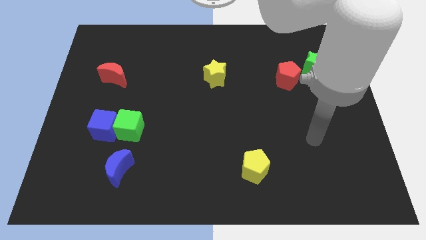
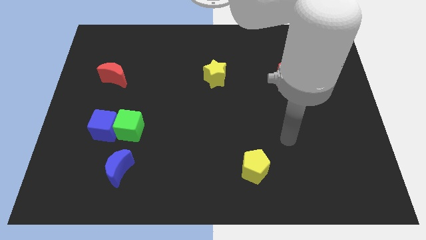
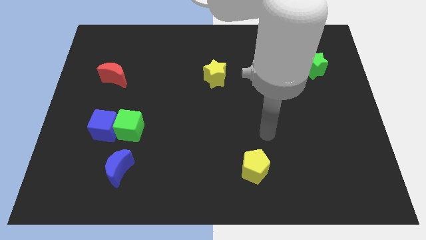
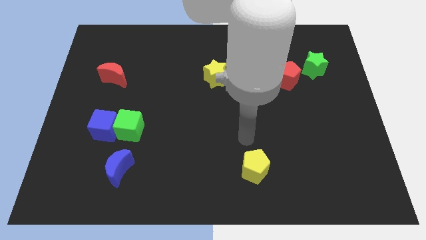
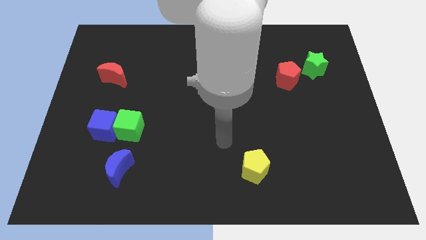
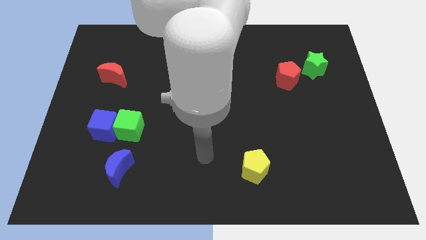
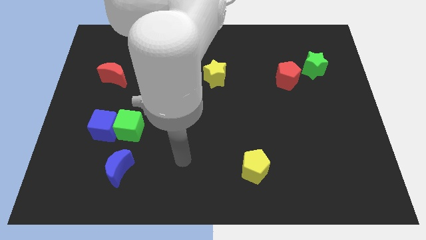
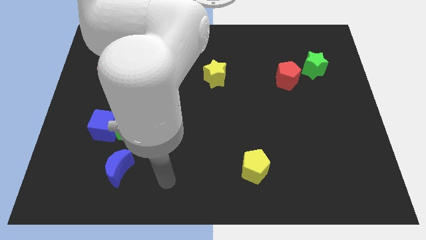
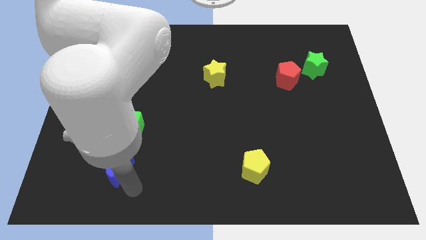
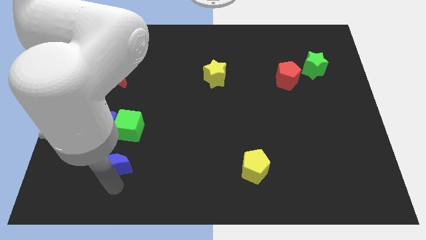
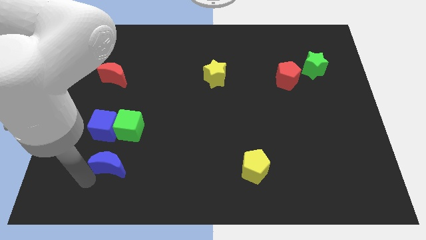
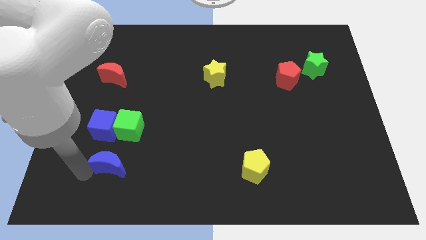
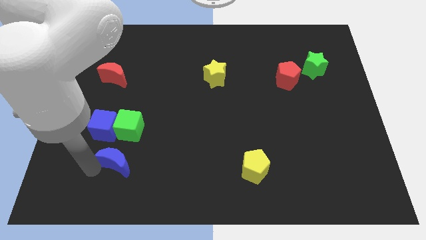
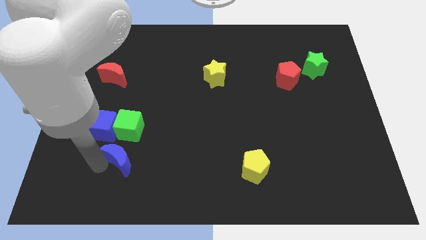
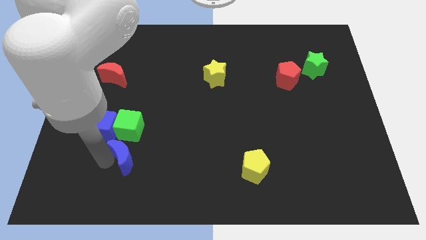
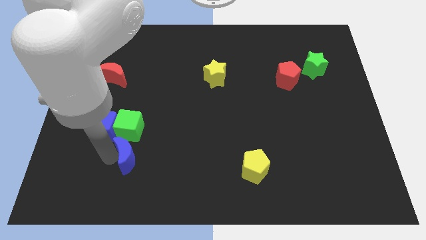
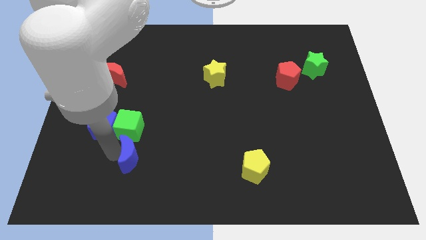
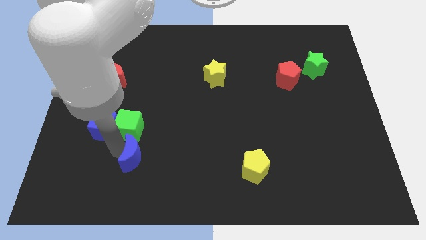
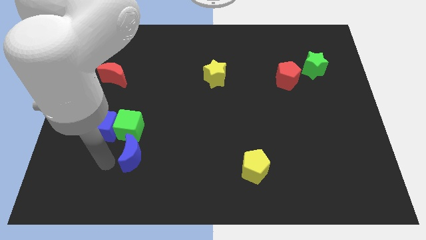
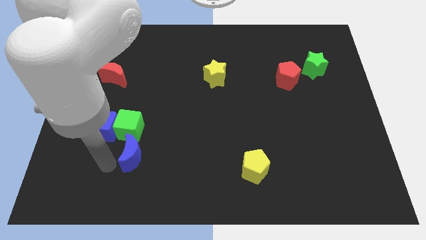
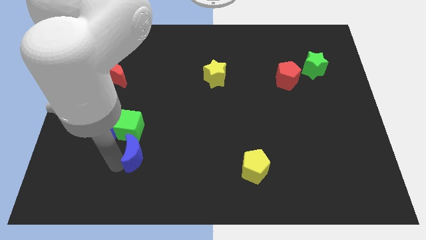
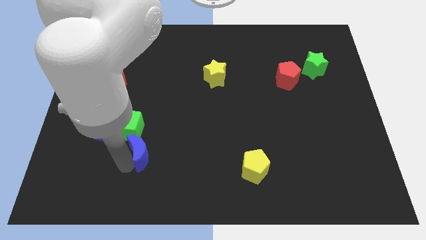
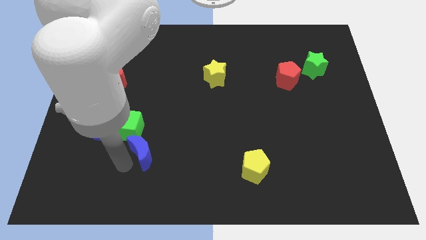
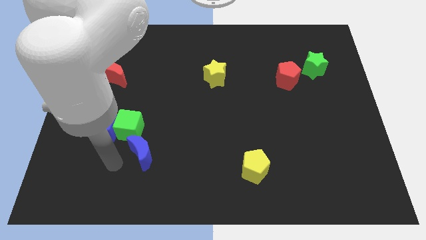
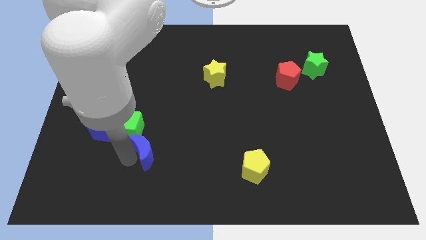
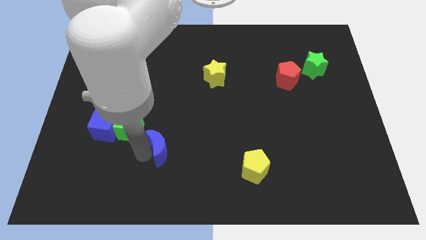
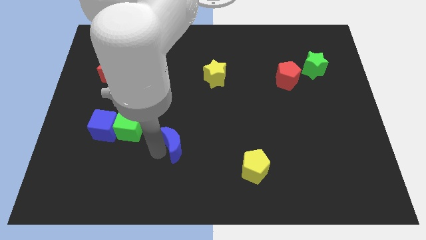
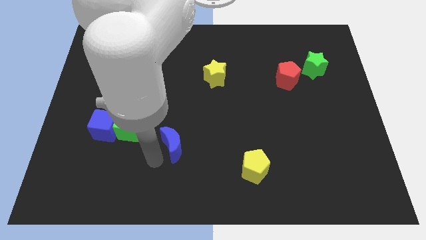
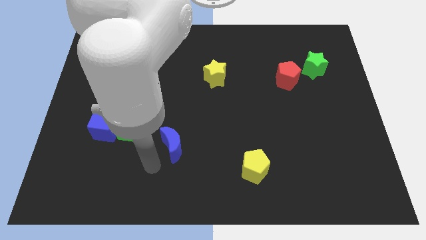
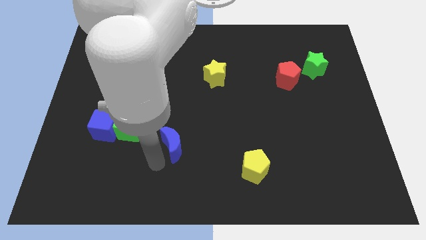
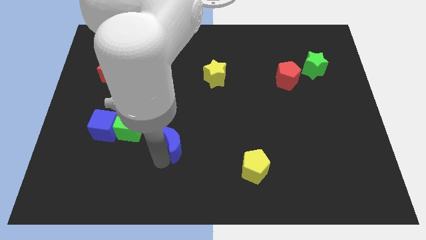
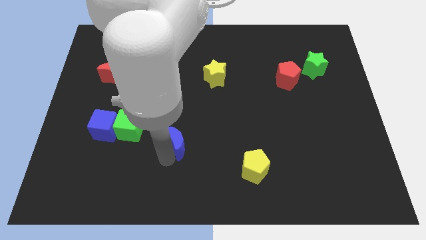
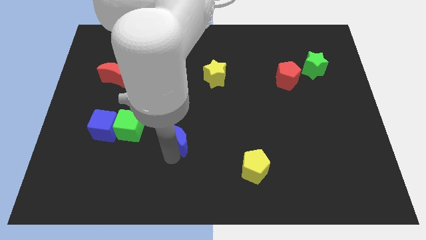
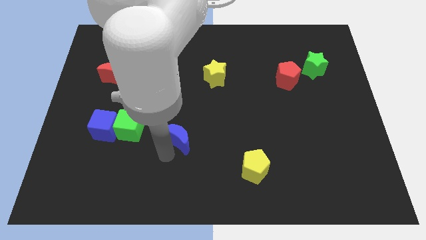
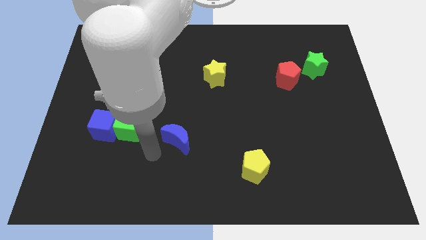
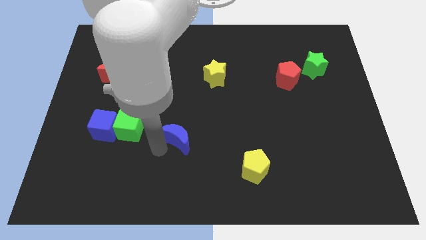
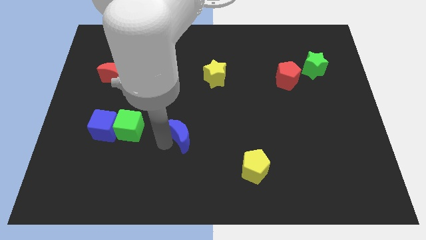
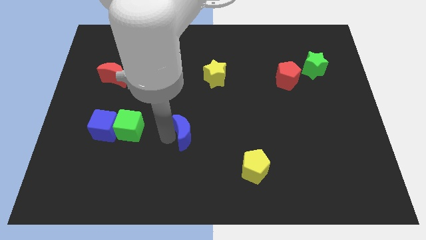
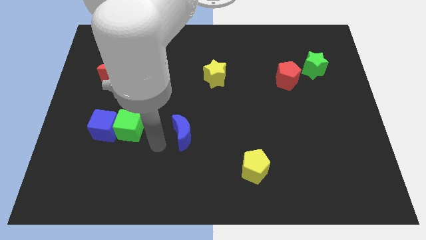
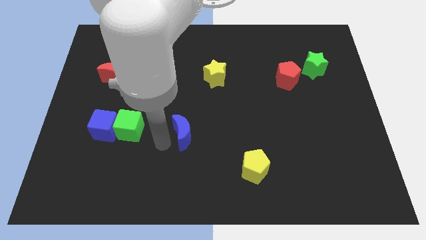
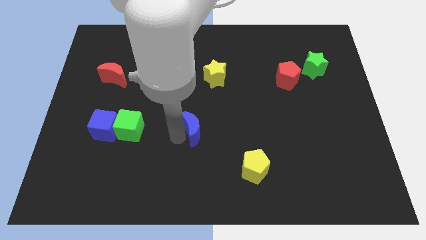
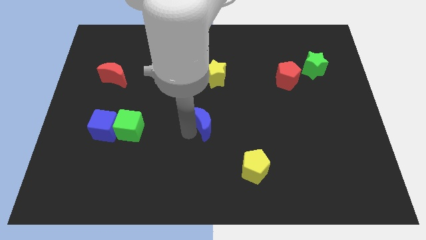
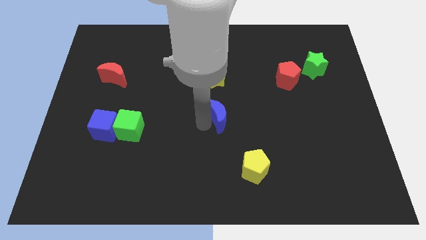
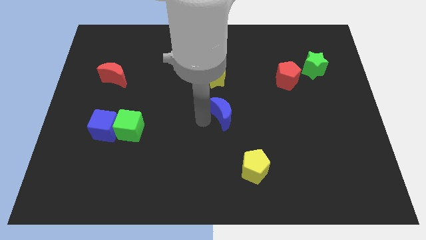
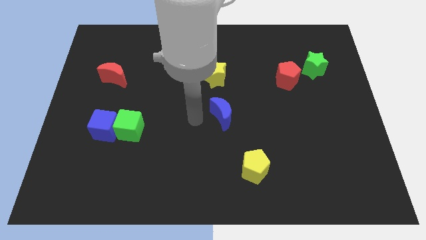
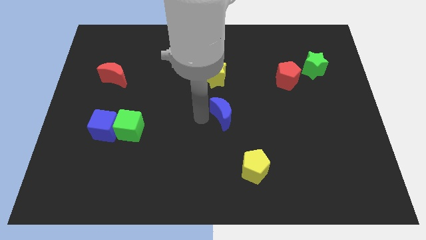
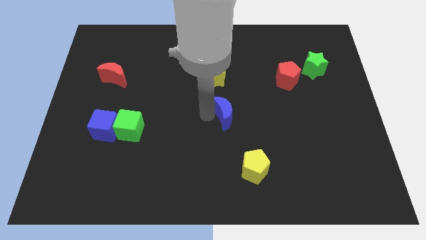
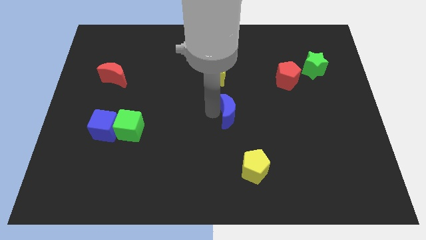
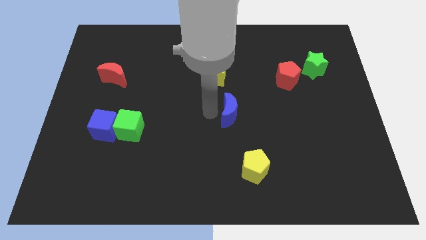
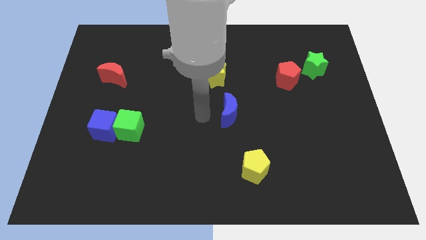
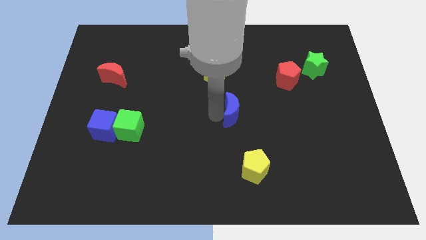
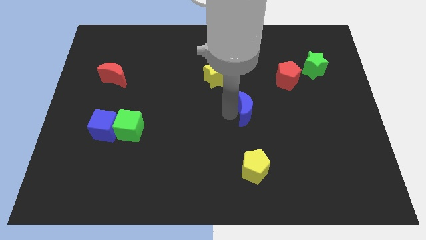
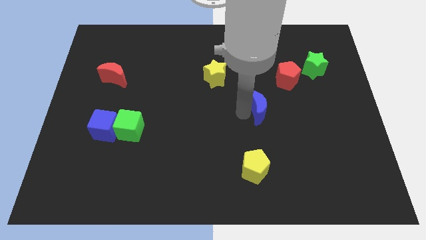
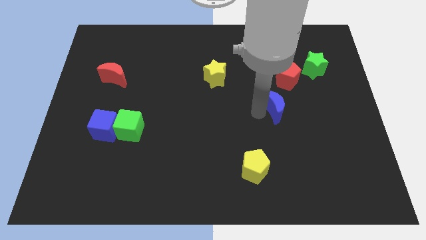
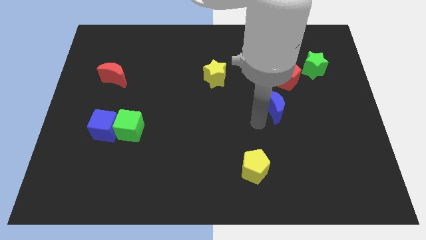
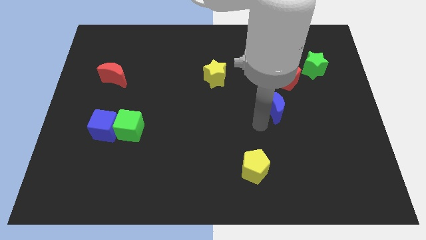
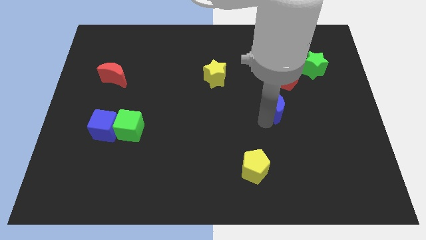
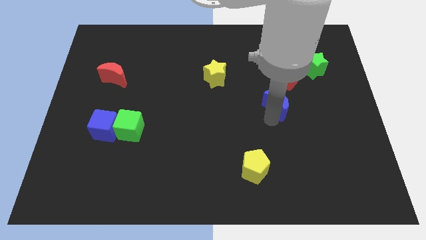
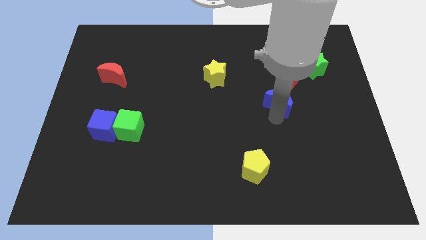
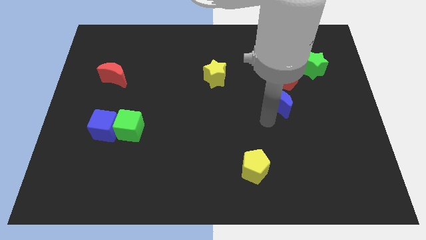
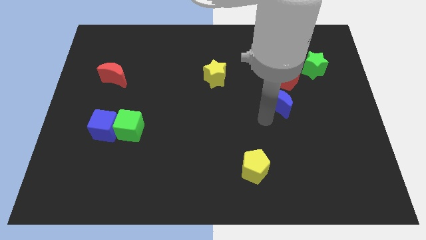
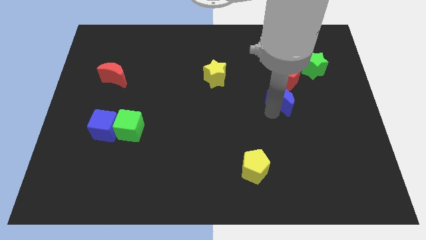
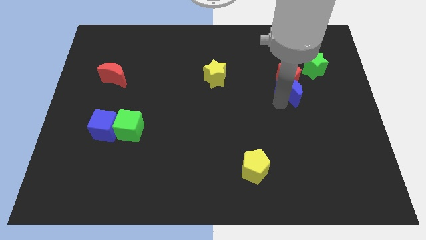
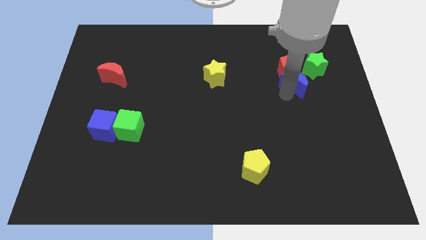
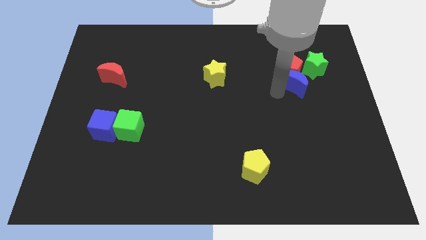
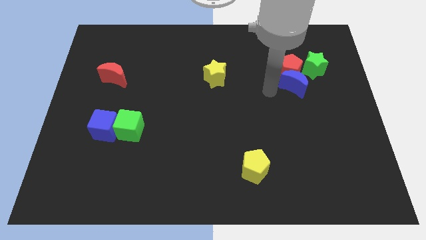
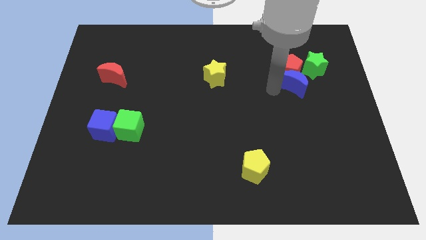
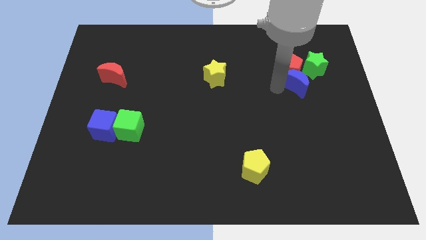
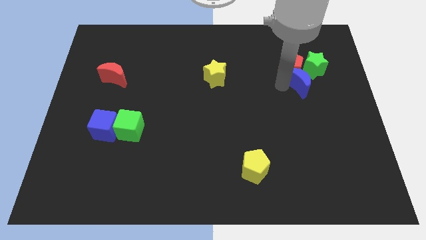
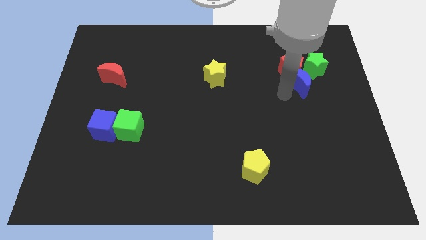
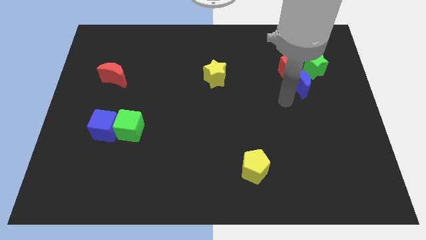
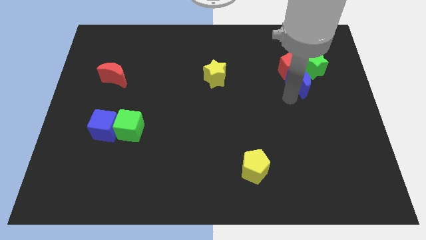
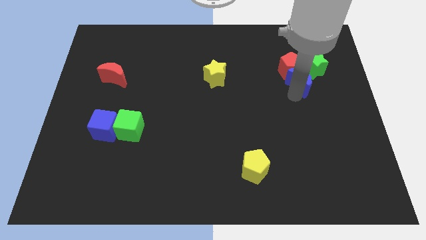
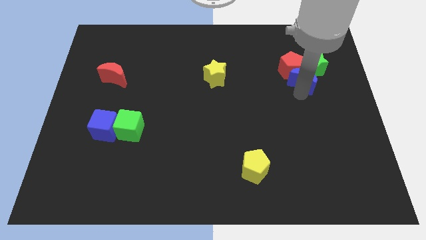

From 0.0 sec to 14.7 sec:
move the blue moon close to the green star
